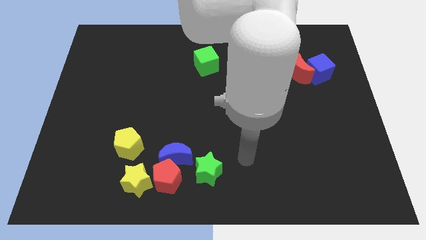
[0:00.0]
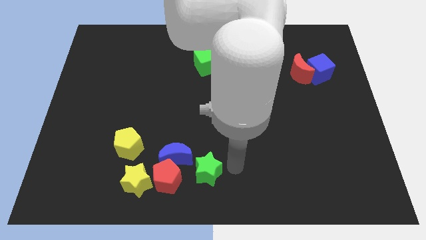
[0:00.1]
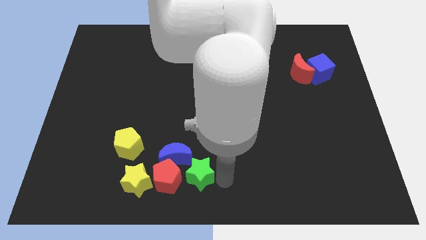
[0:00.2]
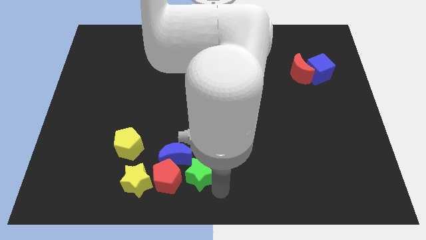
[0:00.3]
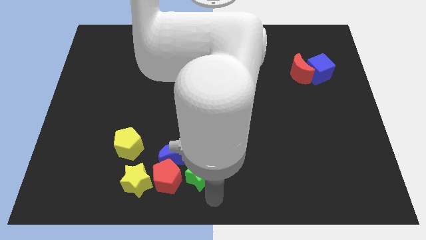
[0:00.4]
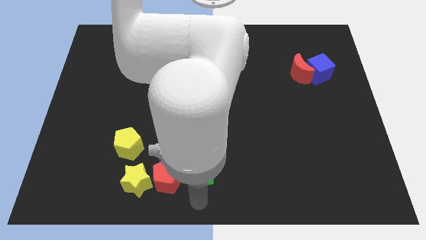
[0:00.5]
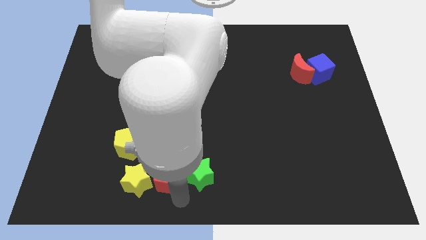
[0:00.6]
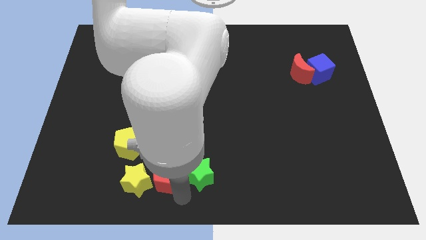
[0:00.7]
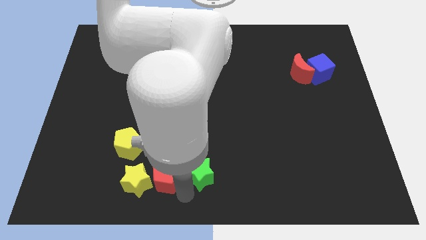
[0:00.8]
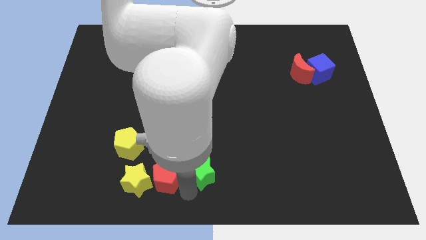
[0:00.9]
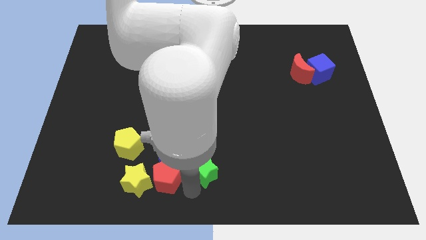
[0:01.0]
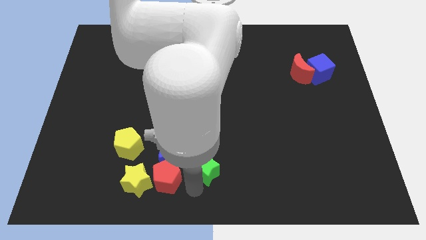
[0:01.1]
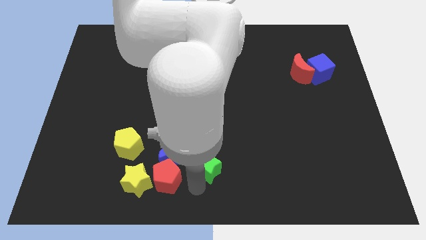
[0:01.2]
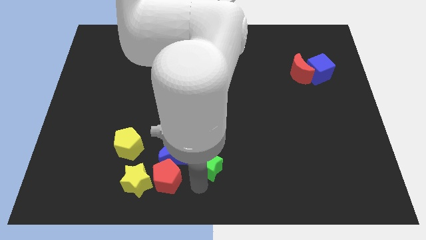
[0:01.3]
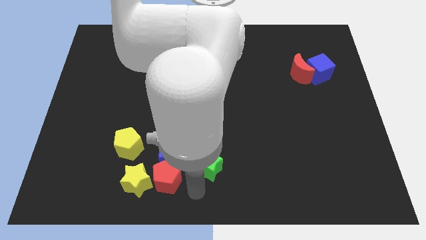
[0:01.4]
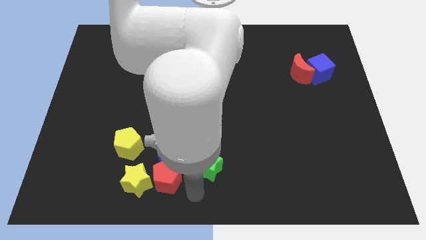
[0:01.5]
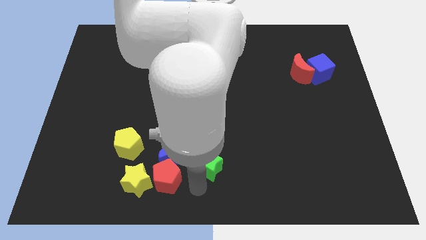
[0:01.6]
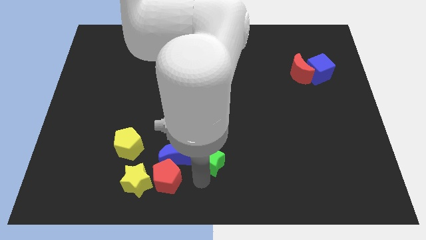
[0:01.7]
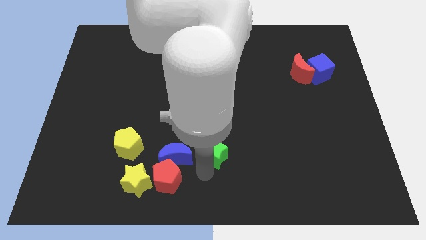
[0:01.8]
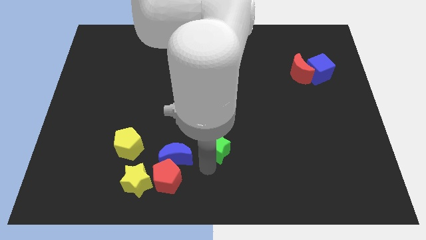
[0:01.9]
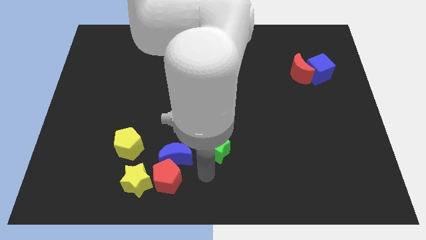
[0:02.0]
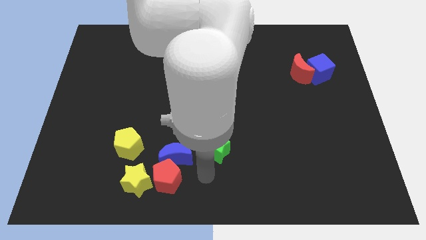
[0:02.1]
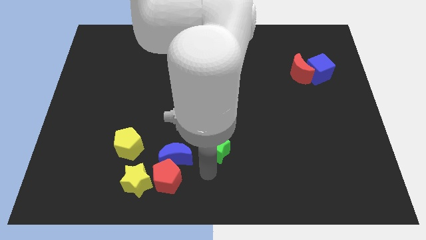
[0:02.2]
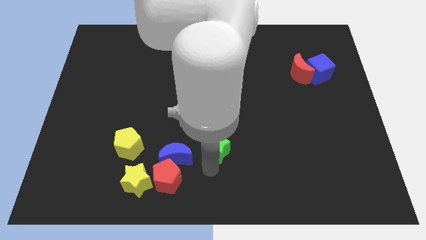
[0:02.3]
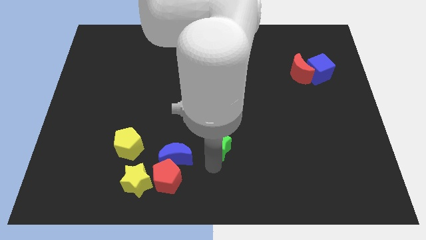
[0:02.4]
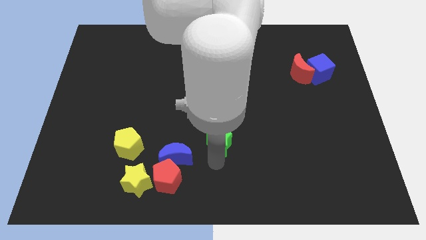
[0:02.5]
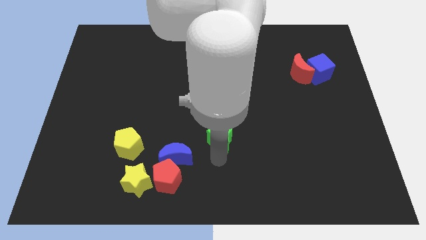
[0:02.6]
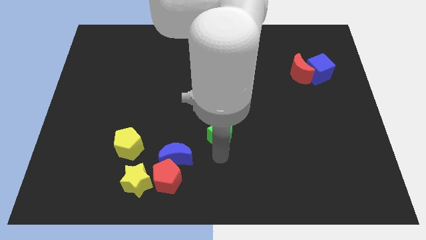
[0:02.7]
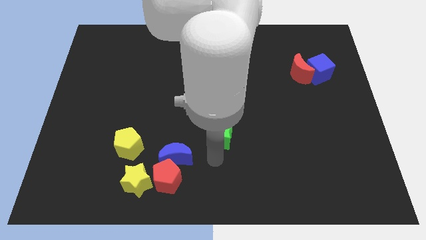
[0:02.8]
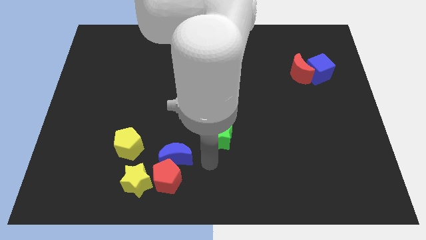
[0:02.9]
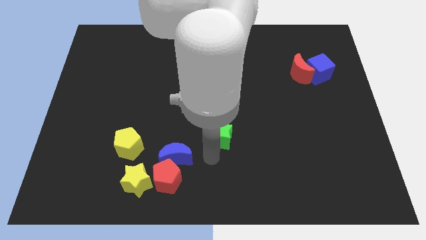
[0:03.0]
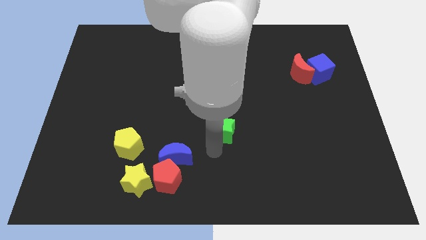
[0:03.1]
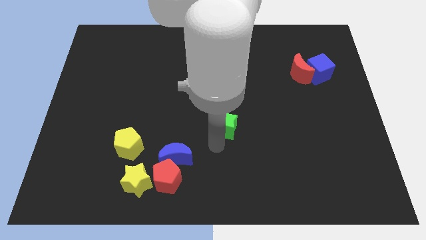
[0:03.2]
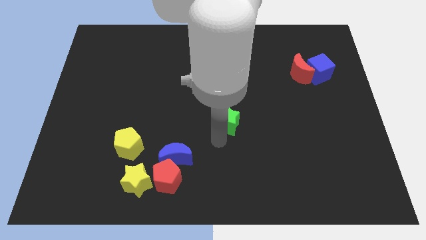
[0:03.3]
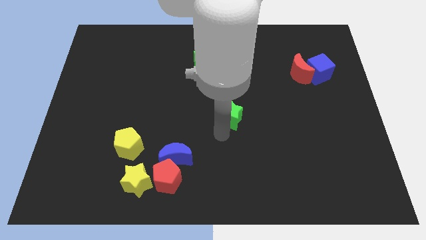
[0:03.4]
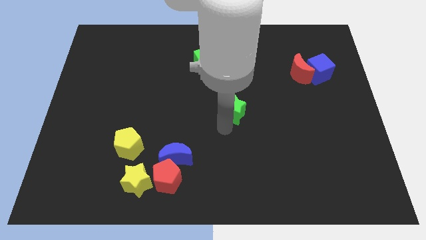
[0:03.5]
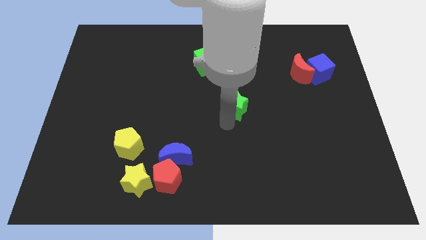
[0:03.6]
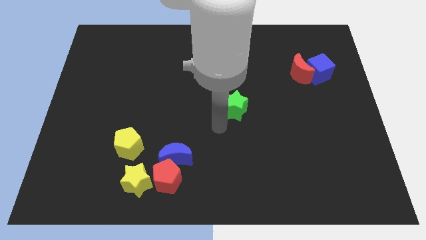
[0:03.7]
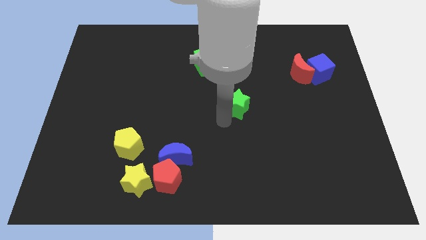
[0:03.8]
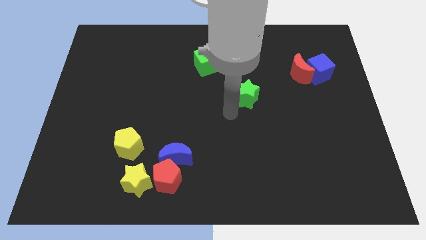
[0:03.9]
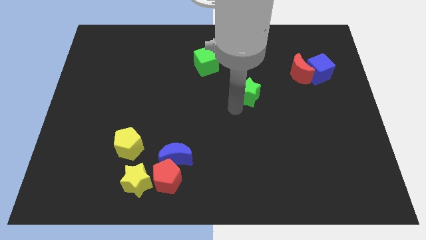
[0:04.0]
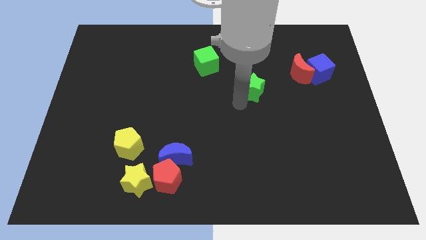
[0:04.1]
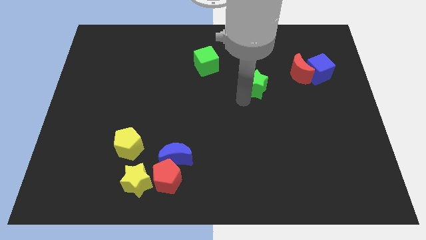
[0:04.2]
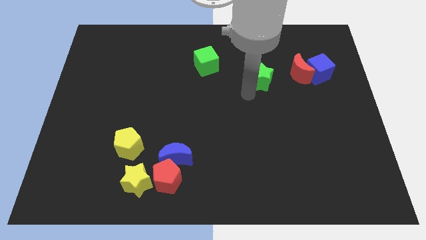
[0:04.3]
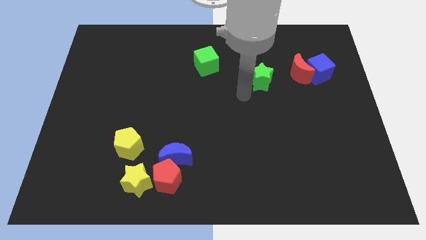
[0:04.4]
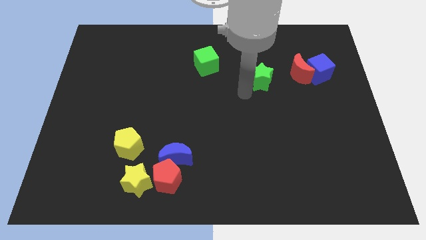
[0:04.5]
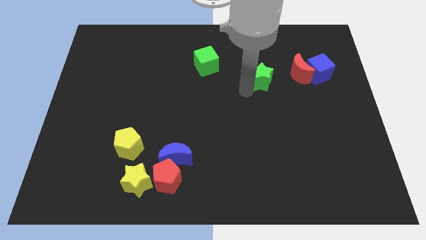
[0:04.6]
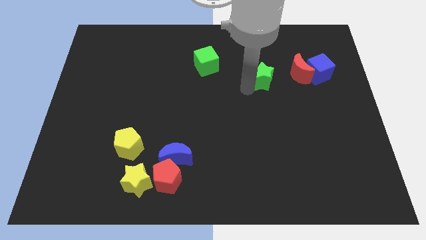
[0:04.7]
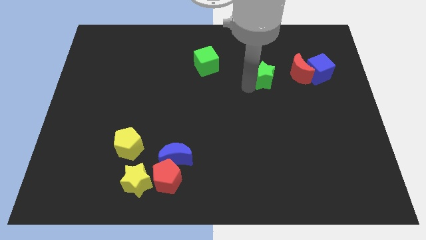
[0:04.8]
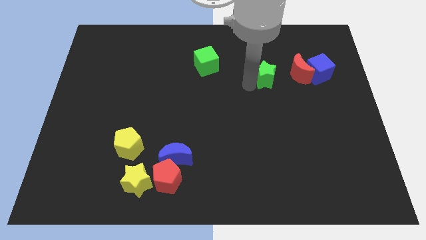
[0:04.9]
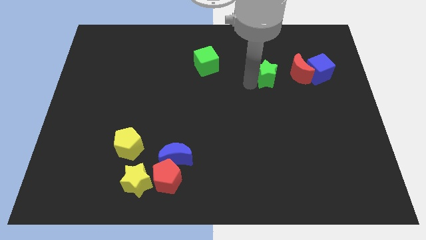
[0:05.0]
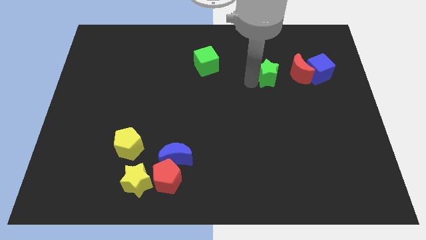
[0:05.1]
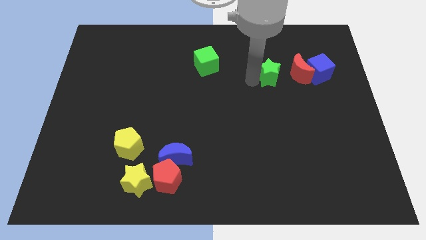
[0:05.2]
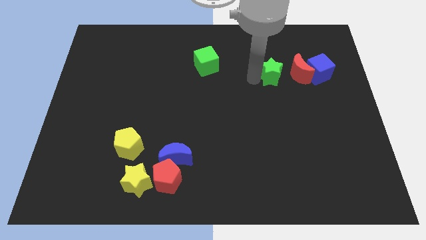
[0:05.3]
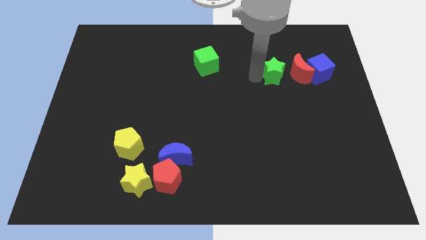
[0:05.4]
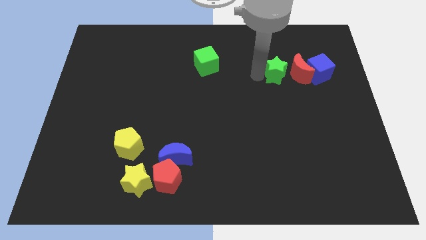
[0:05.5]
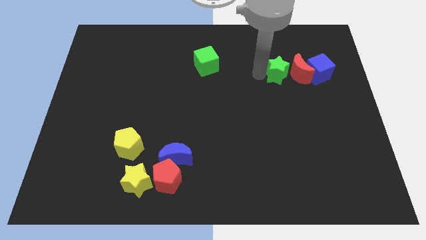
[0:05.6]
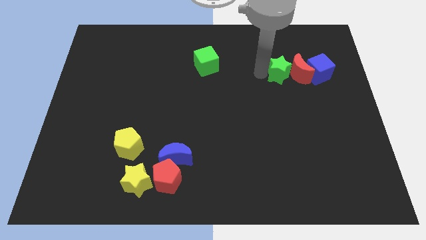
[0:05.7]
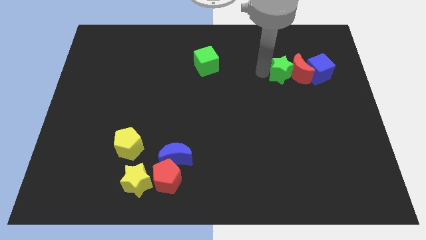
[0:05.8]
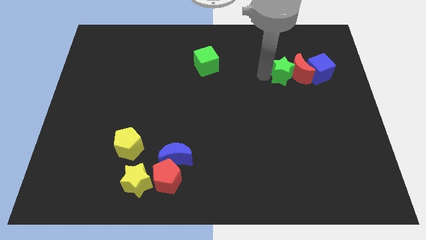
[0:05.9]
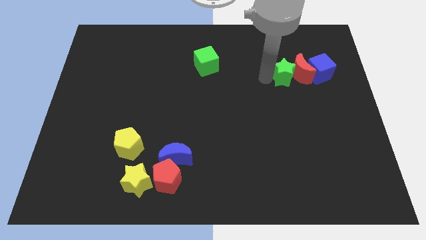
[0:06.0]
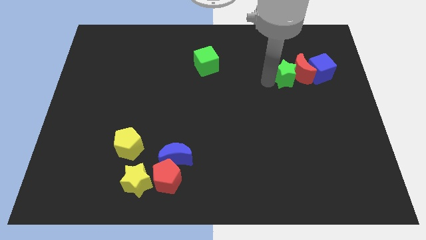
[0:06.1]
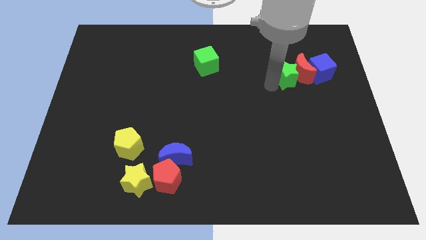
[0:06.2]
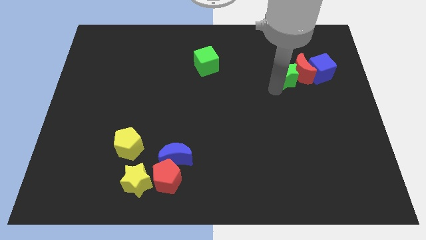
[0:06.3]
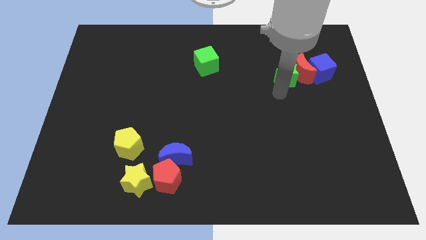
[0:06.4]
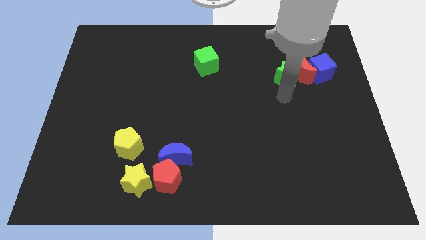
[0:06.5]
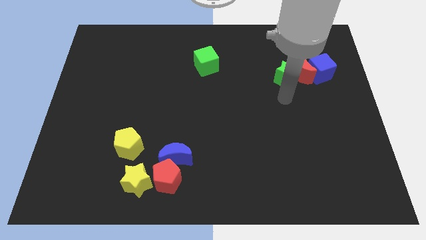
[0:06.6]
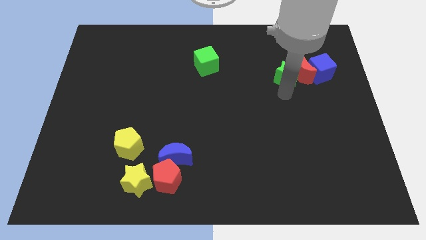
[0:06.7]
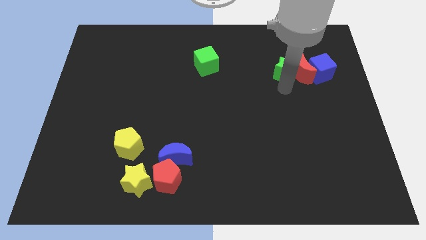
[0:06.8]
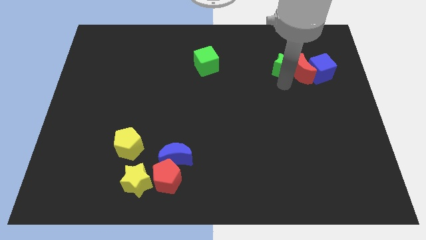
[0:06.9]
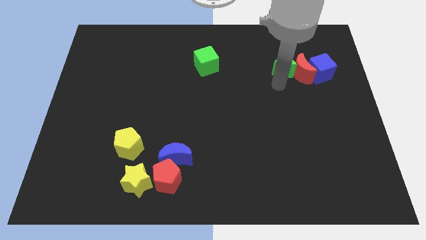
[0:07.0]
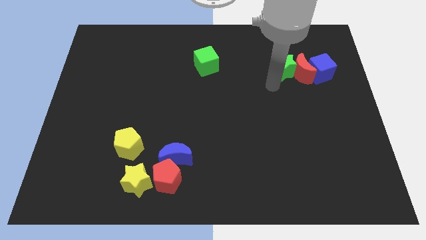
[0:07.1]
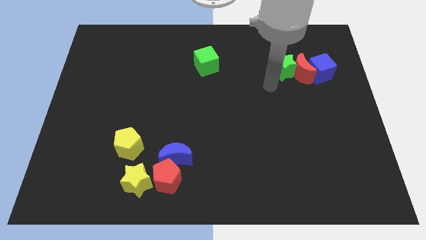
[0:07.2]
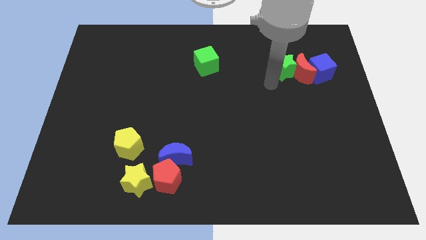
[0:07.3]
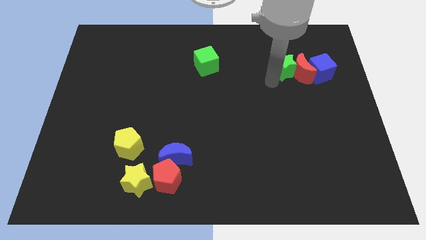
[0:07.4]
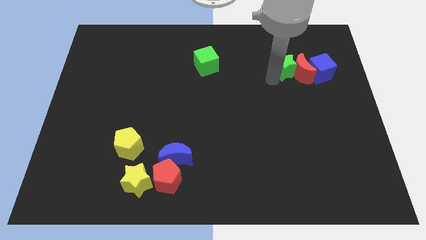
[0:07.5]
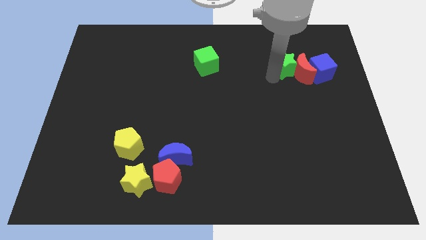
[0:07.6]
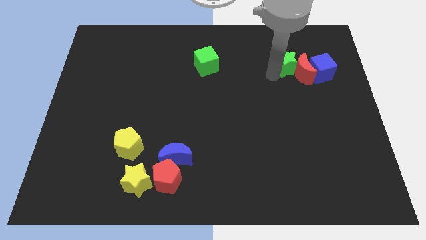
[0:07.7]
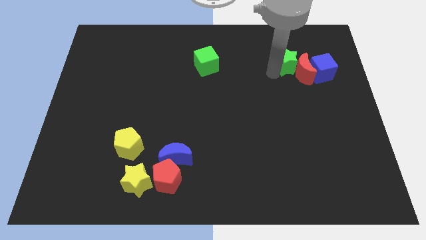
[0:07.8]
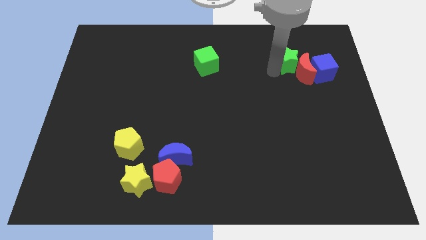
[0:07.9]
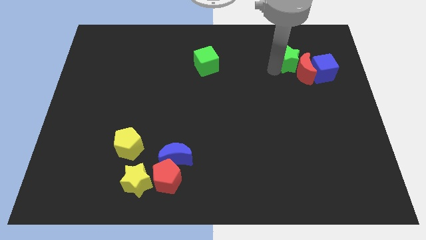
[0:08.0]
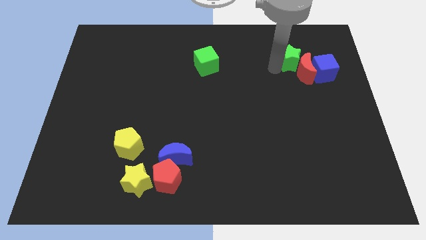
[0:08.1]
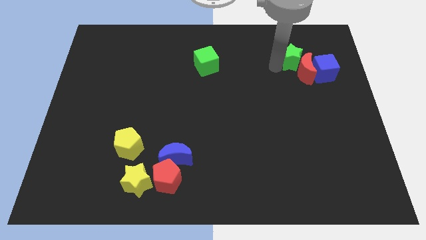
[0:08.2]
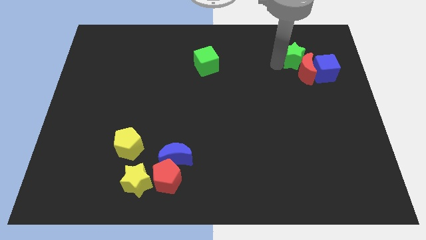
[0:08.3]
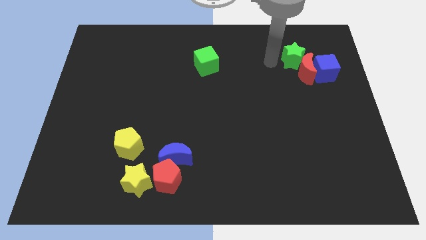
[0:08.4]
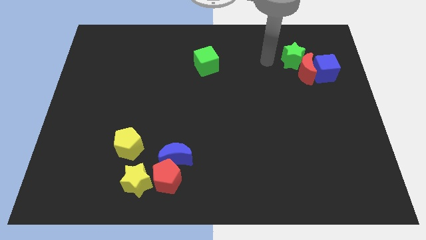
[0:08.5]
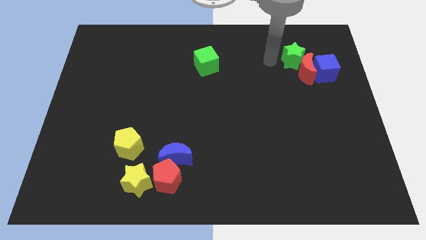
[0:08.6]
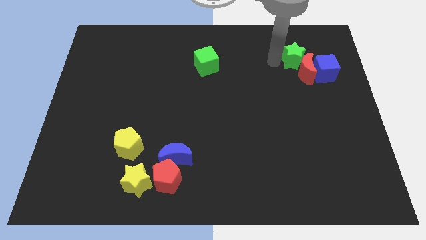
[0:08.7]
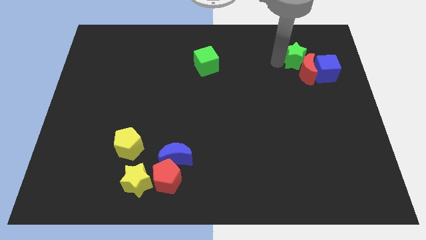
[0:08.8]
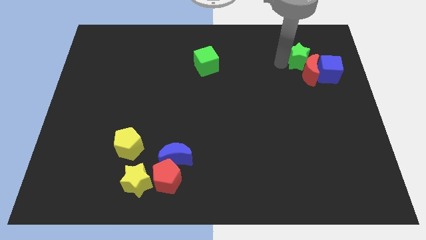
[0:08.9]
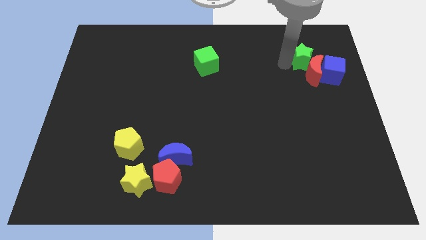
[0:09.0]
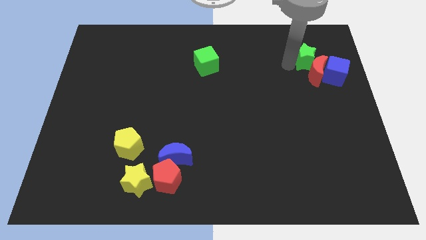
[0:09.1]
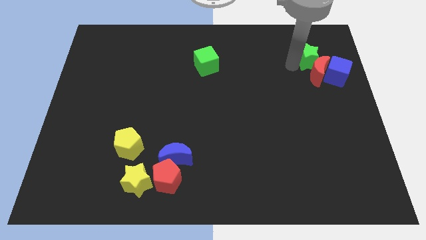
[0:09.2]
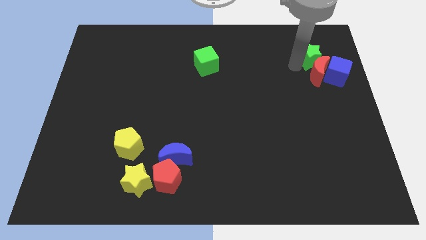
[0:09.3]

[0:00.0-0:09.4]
move the green star diagonally up and to the right of the red moon
